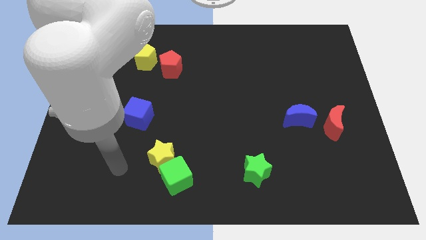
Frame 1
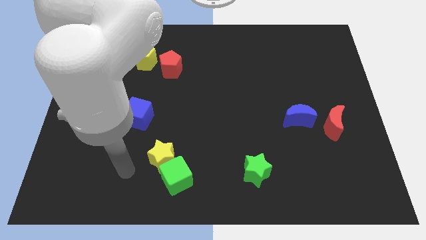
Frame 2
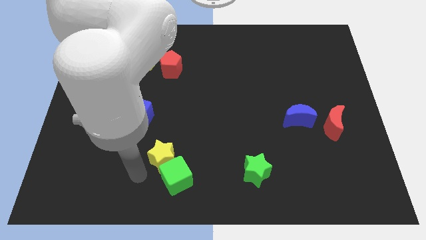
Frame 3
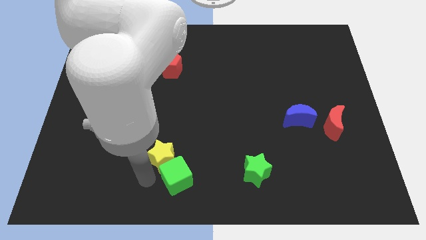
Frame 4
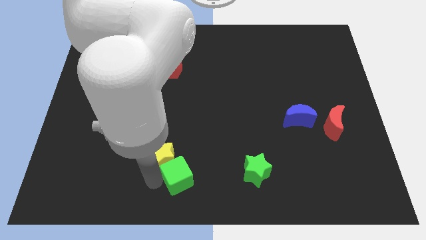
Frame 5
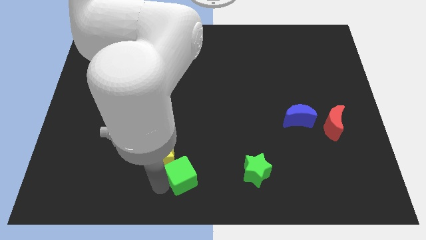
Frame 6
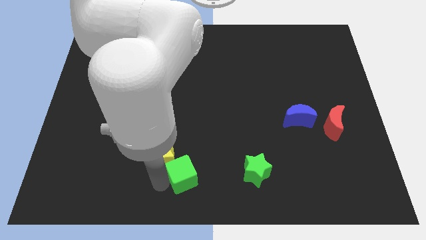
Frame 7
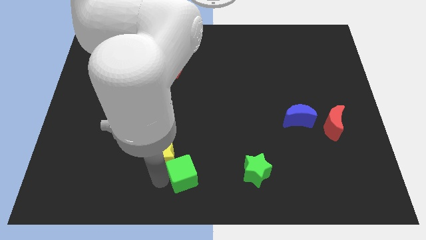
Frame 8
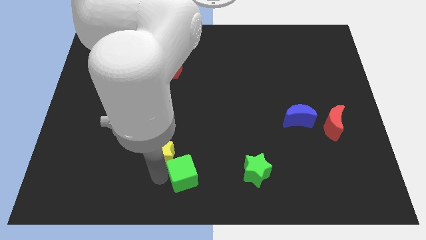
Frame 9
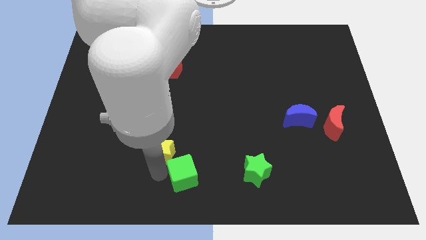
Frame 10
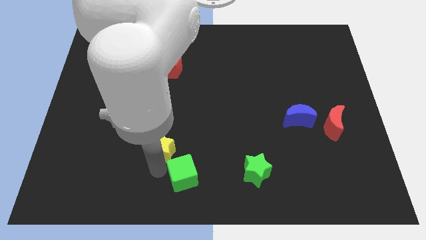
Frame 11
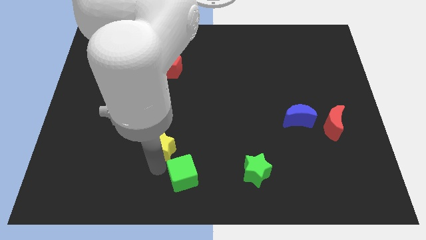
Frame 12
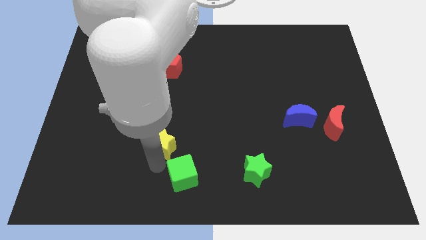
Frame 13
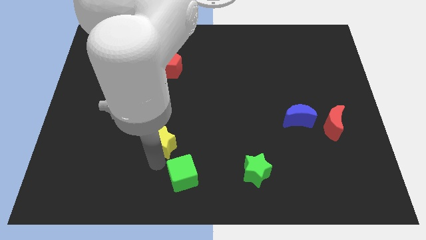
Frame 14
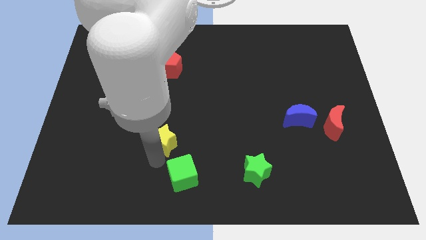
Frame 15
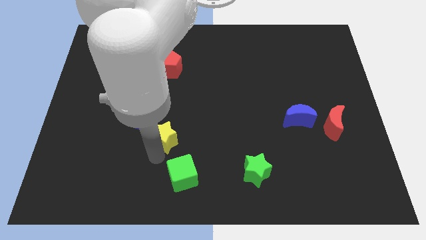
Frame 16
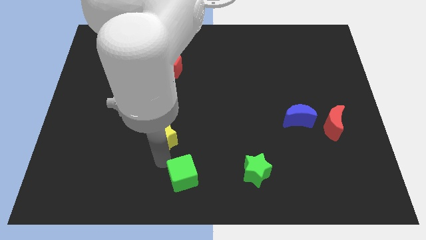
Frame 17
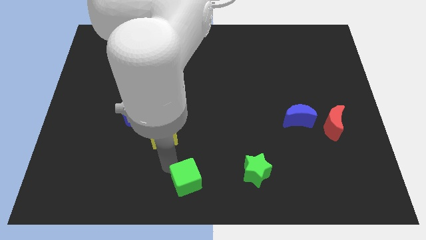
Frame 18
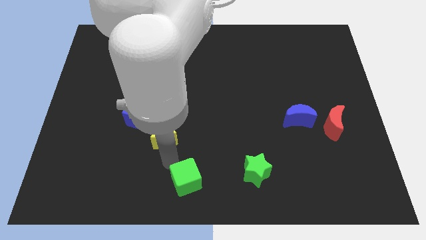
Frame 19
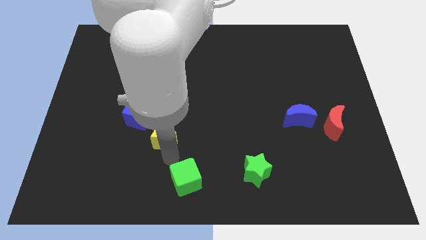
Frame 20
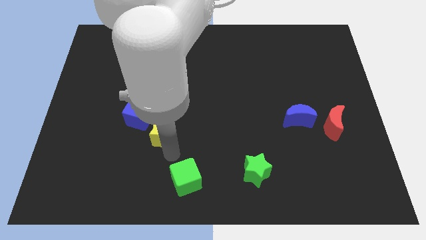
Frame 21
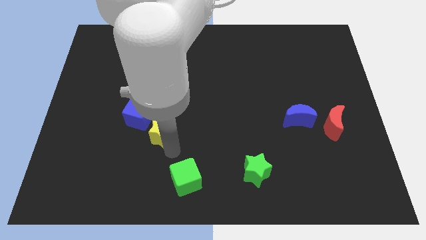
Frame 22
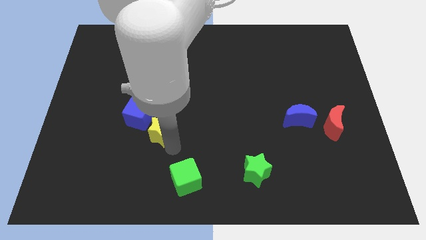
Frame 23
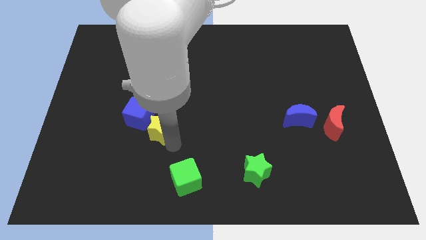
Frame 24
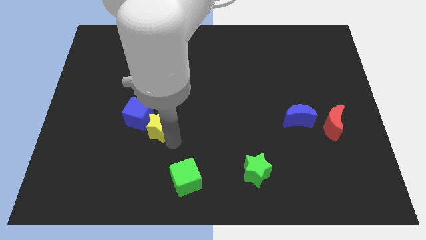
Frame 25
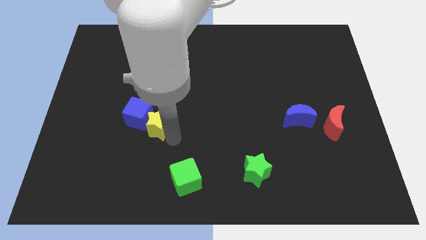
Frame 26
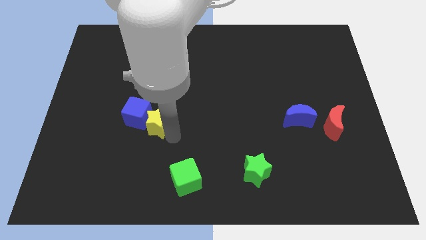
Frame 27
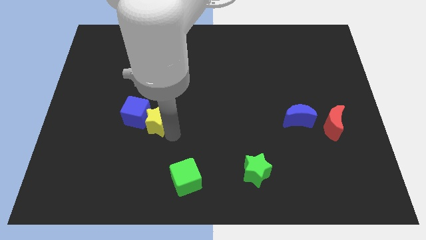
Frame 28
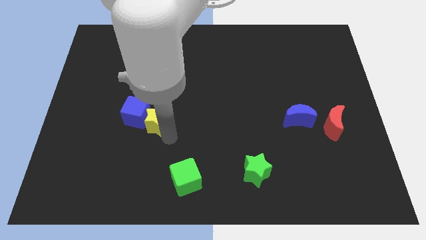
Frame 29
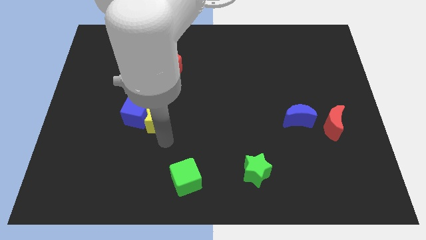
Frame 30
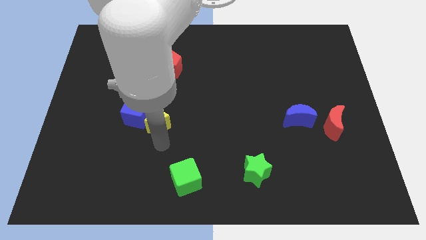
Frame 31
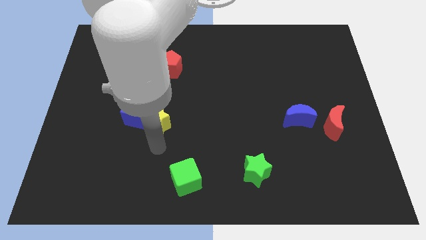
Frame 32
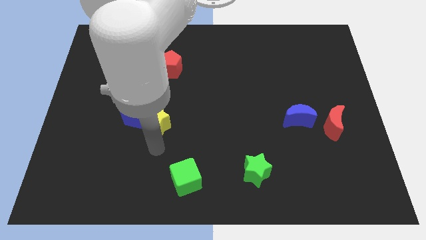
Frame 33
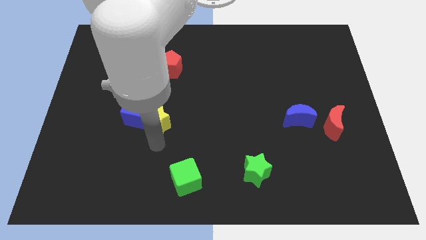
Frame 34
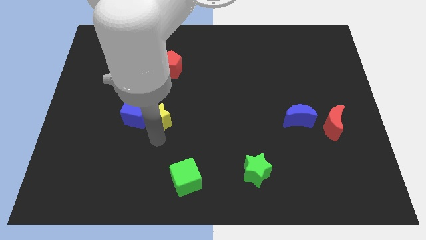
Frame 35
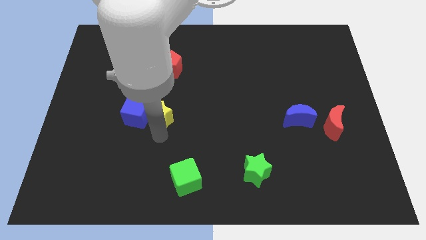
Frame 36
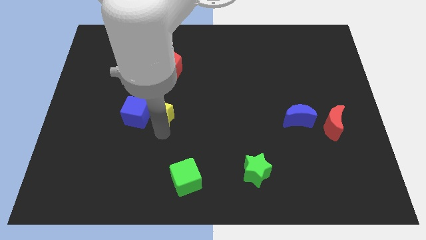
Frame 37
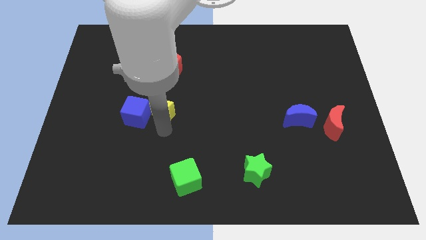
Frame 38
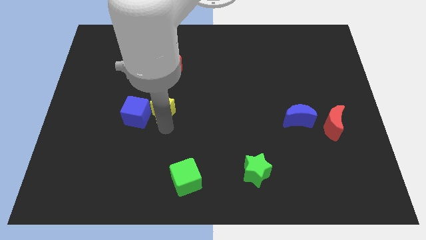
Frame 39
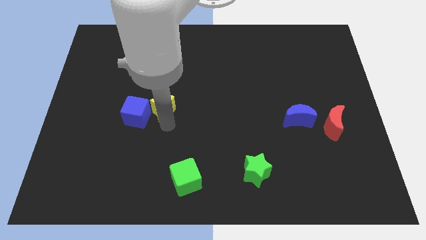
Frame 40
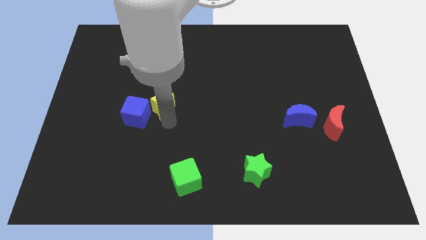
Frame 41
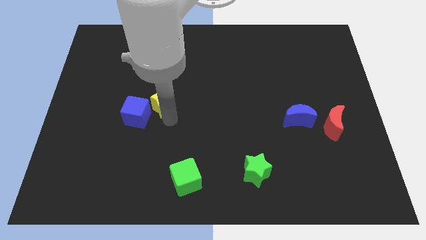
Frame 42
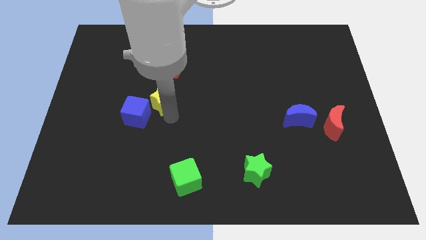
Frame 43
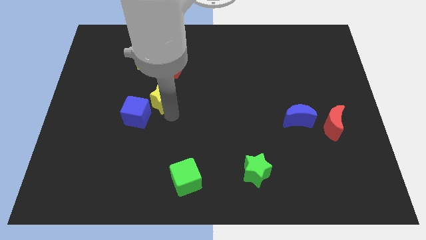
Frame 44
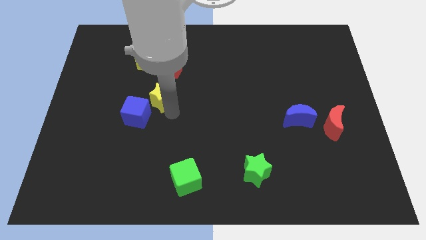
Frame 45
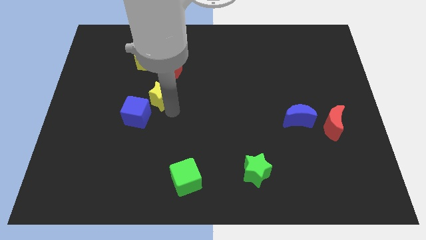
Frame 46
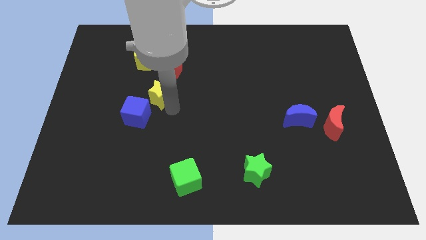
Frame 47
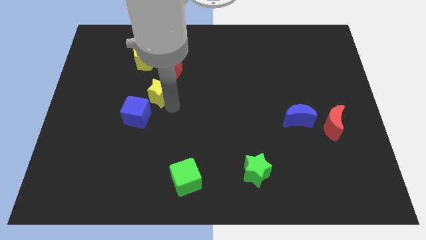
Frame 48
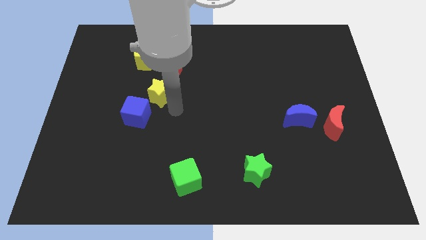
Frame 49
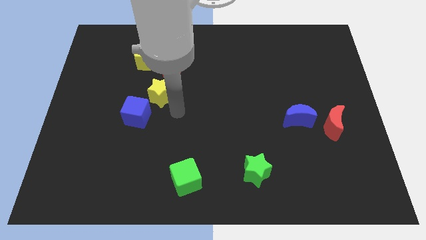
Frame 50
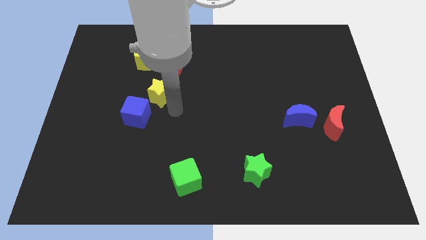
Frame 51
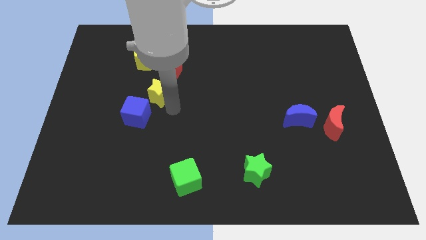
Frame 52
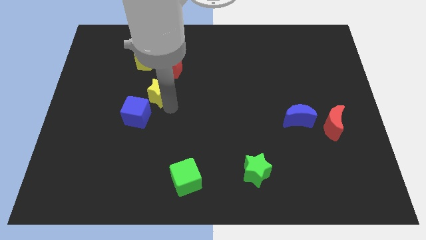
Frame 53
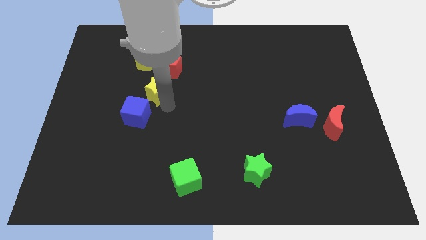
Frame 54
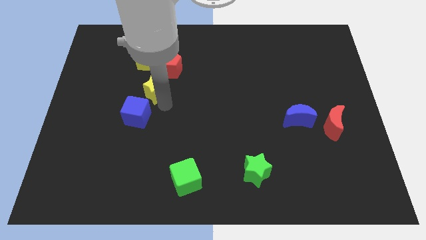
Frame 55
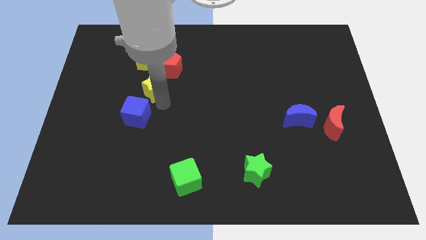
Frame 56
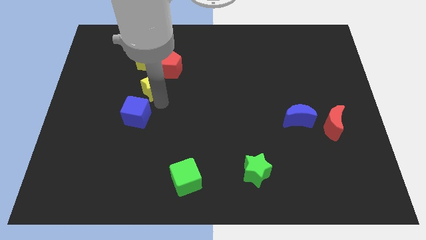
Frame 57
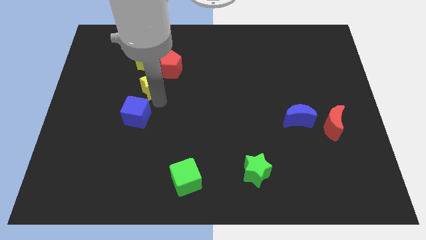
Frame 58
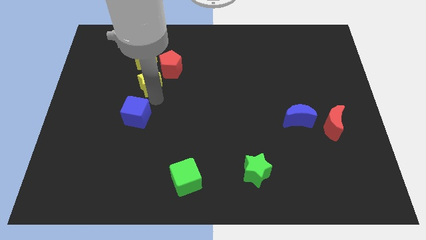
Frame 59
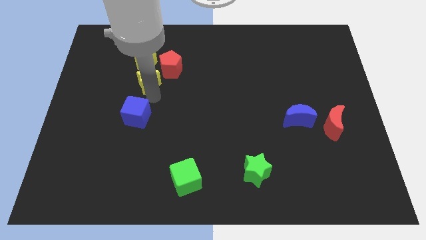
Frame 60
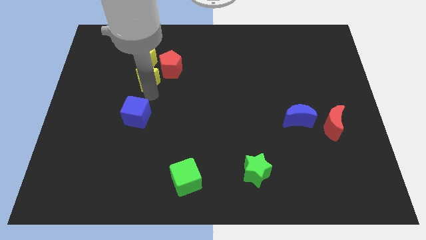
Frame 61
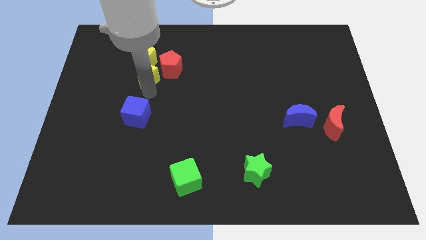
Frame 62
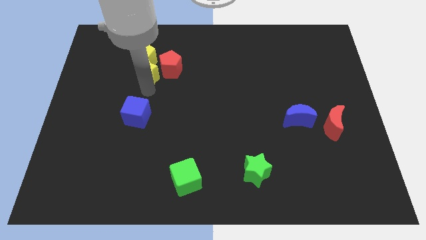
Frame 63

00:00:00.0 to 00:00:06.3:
push the yellow star to the yellow pentagon

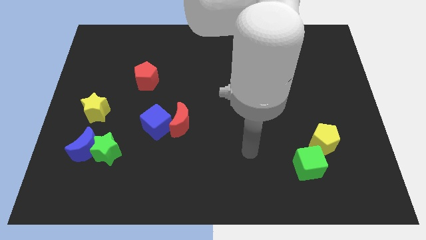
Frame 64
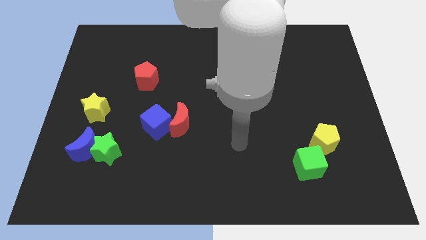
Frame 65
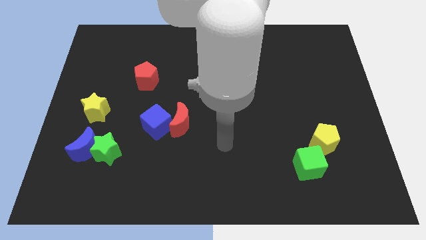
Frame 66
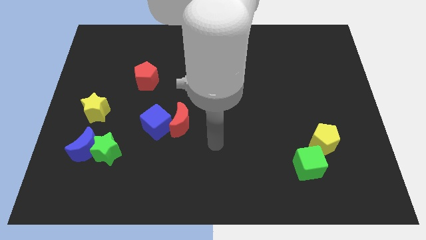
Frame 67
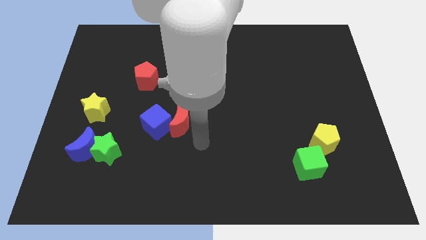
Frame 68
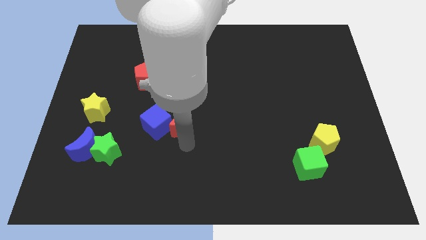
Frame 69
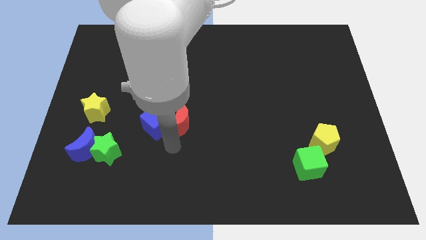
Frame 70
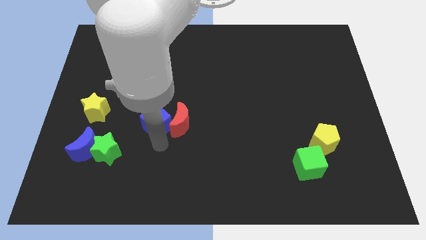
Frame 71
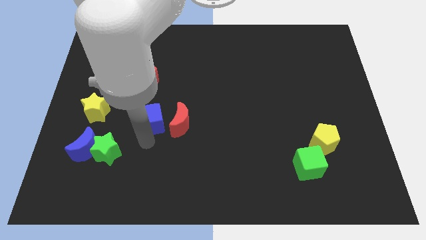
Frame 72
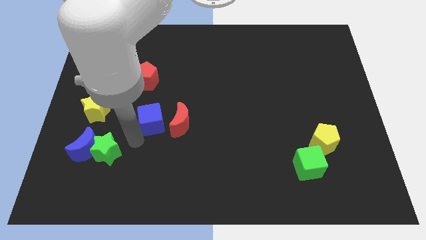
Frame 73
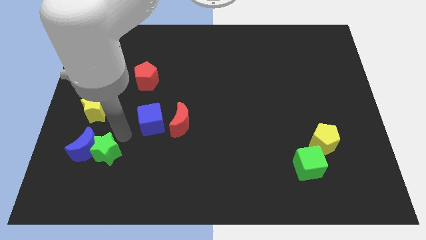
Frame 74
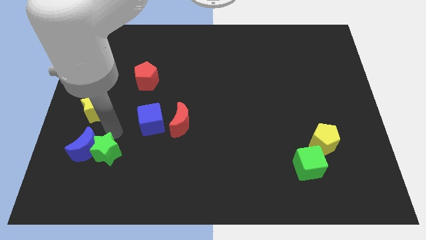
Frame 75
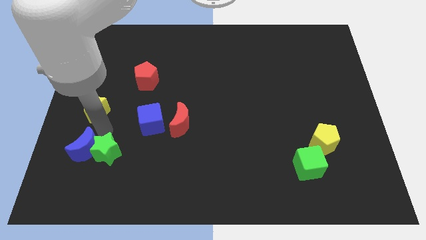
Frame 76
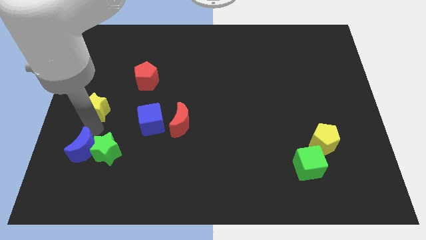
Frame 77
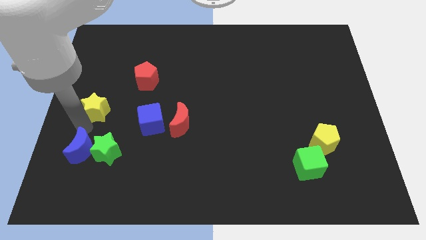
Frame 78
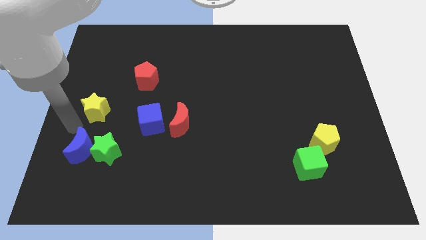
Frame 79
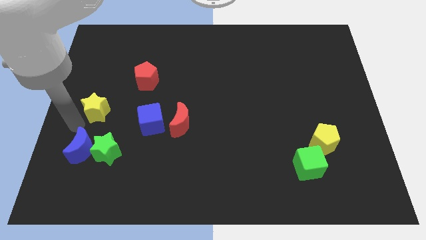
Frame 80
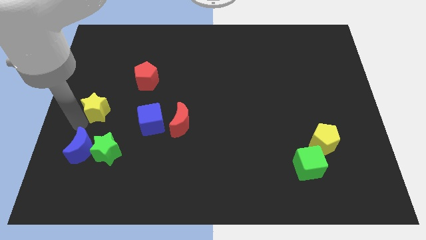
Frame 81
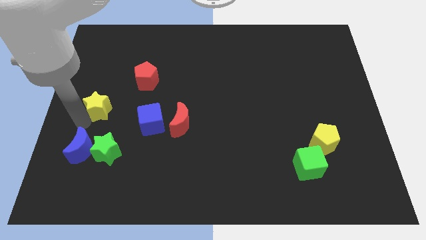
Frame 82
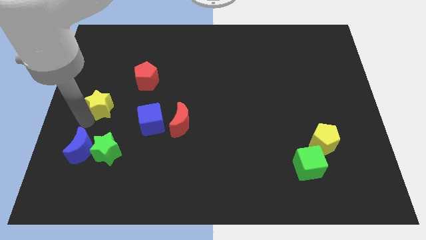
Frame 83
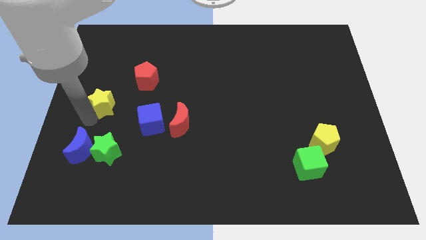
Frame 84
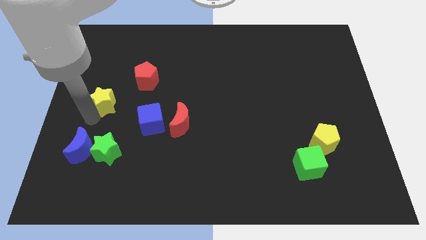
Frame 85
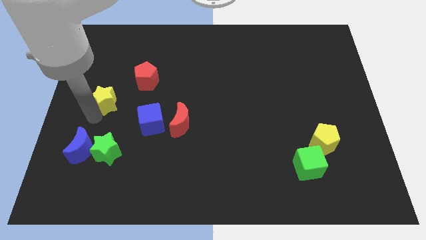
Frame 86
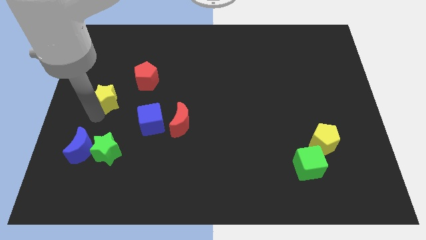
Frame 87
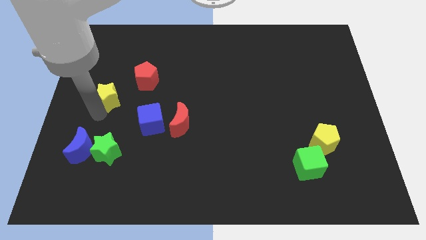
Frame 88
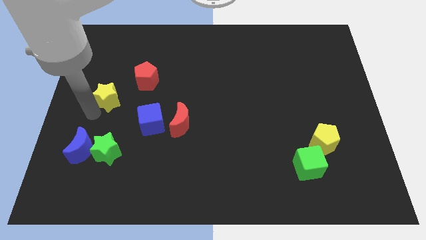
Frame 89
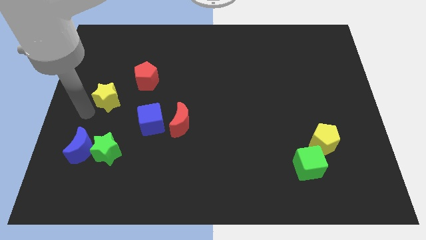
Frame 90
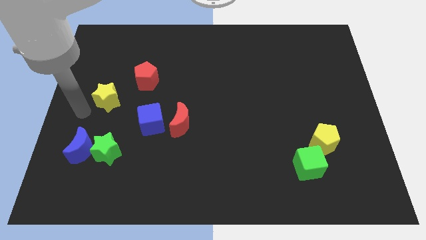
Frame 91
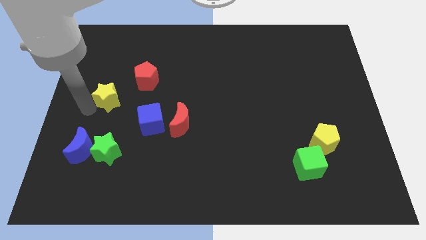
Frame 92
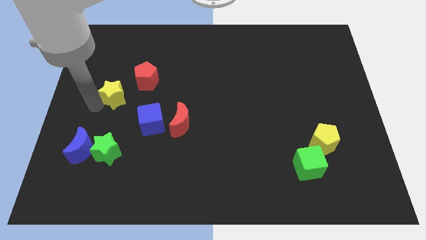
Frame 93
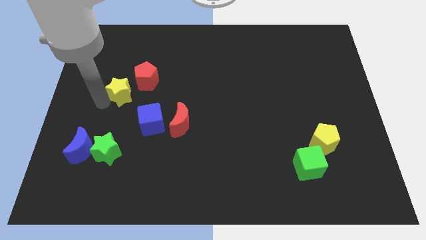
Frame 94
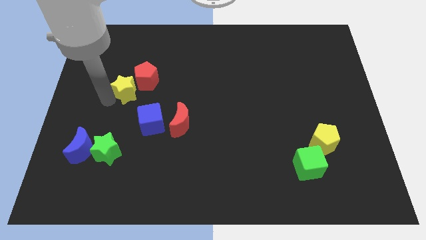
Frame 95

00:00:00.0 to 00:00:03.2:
slide the yellow star towards the red pentagon
